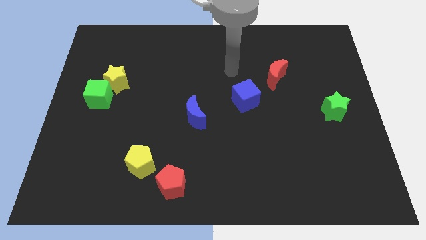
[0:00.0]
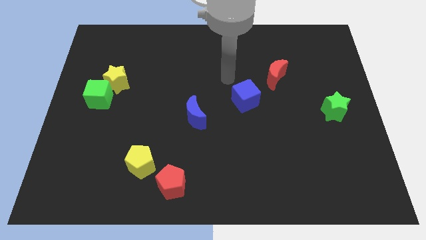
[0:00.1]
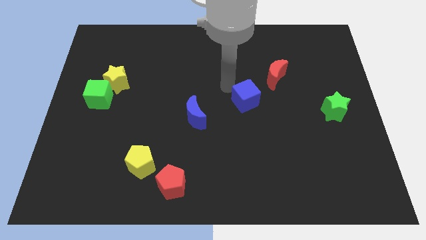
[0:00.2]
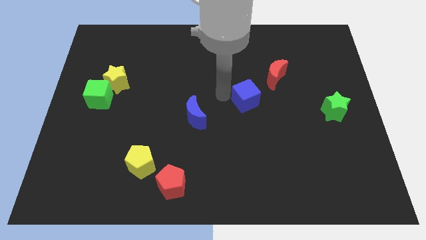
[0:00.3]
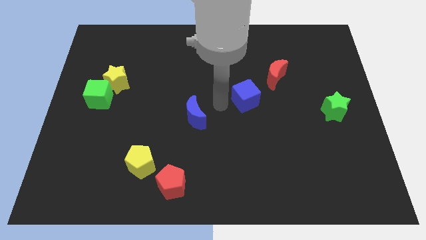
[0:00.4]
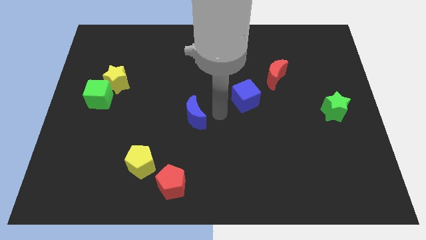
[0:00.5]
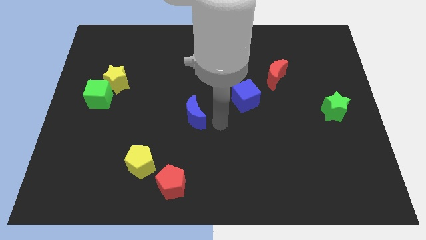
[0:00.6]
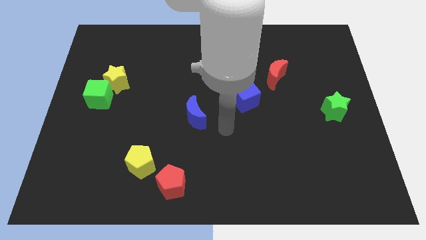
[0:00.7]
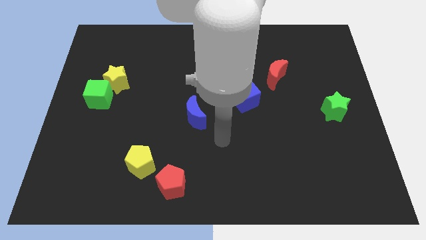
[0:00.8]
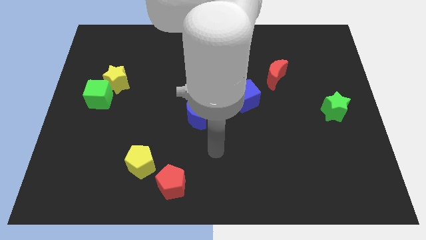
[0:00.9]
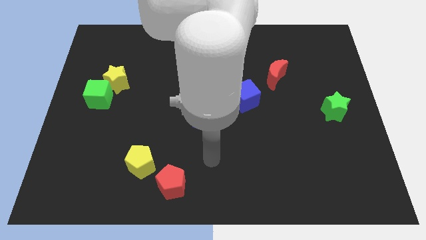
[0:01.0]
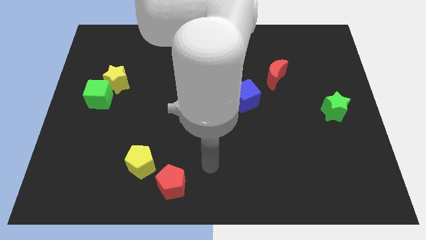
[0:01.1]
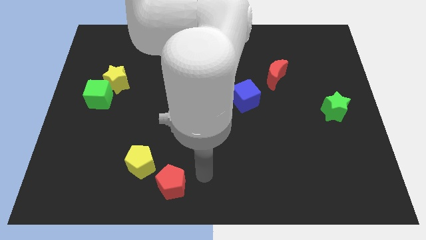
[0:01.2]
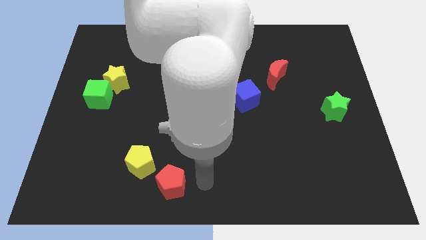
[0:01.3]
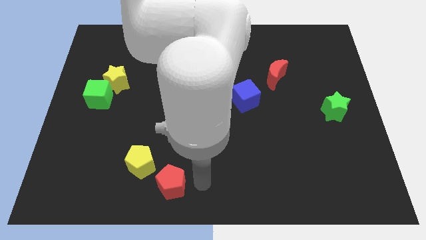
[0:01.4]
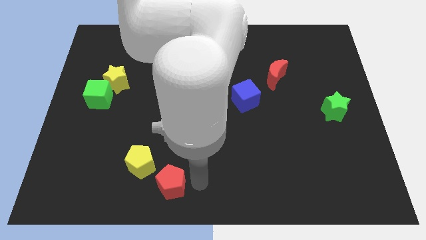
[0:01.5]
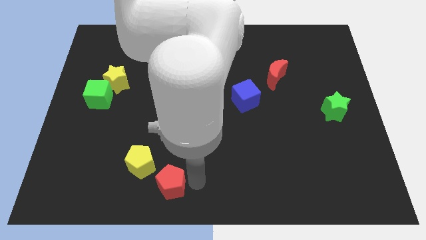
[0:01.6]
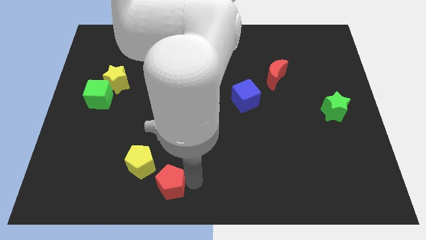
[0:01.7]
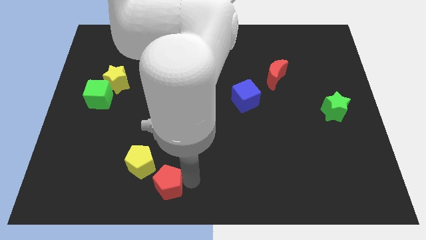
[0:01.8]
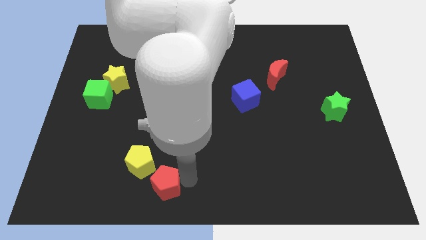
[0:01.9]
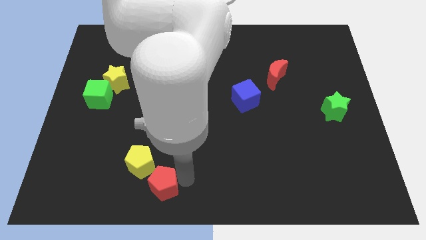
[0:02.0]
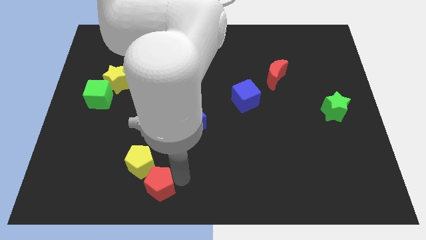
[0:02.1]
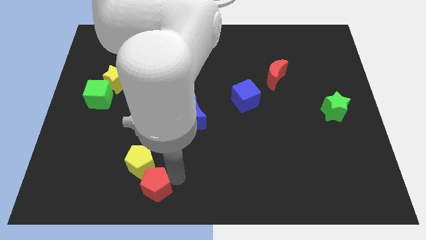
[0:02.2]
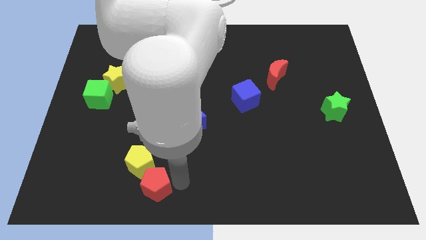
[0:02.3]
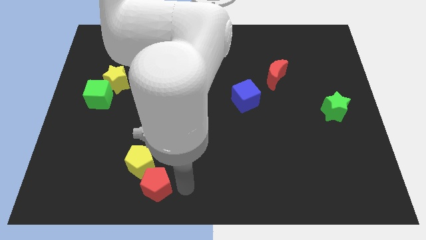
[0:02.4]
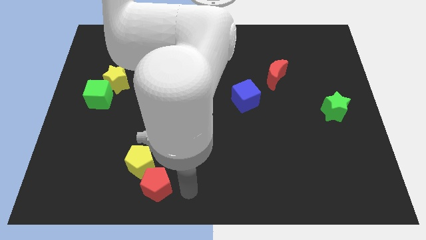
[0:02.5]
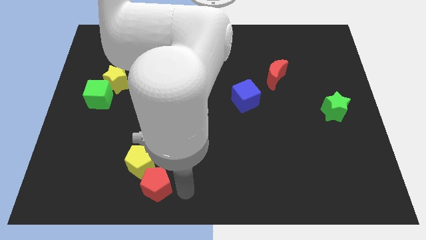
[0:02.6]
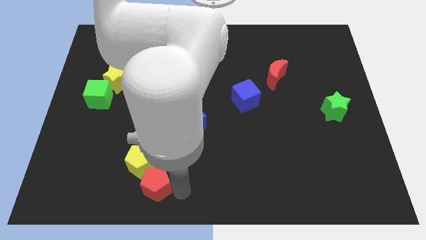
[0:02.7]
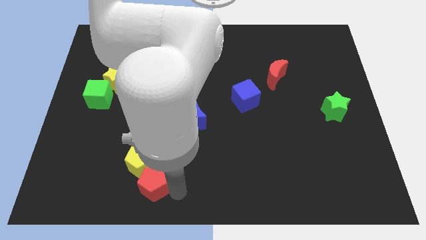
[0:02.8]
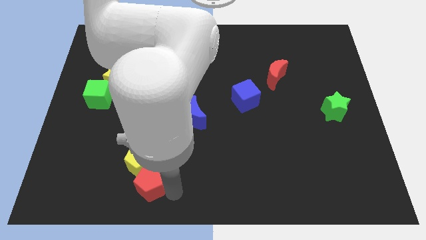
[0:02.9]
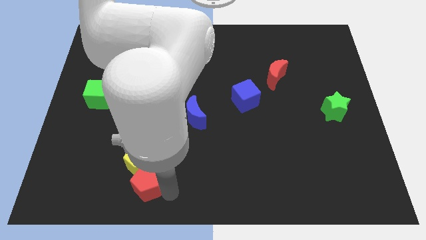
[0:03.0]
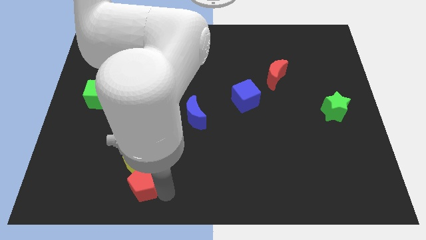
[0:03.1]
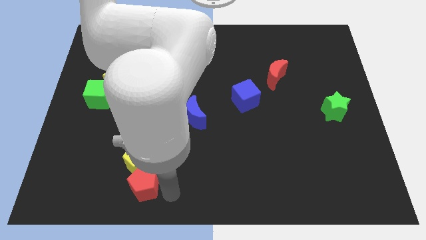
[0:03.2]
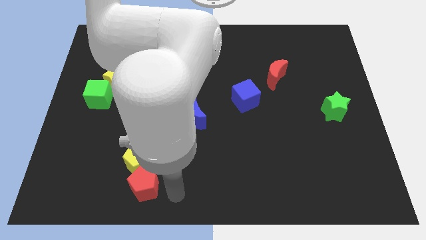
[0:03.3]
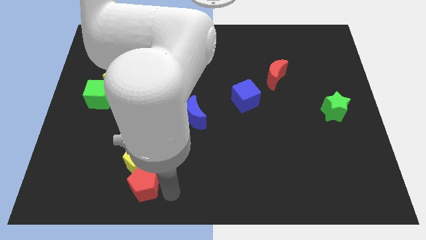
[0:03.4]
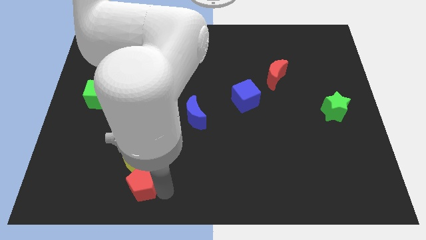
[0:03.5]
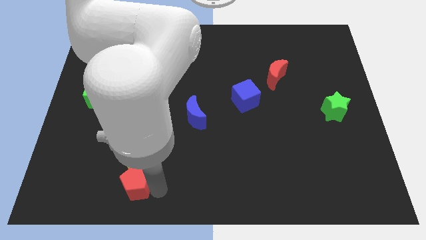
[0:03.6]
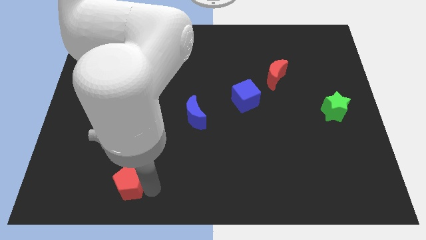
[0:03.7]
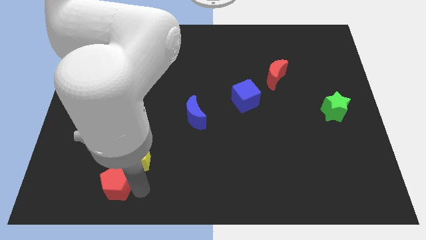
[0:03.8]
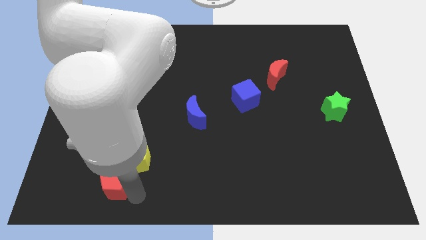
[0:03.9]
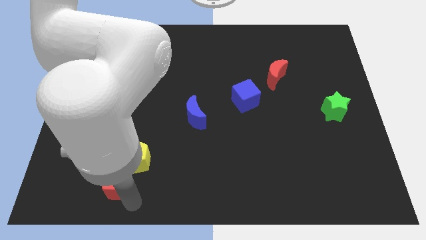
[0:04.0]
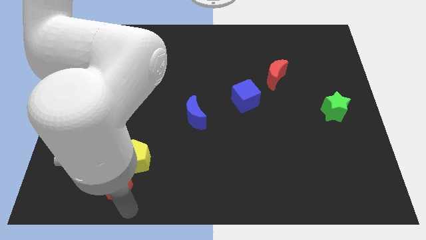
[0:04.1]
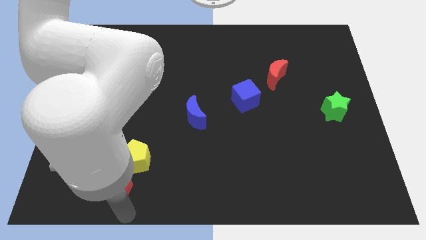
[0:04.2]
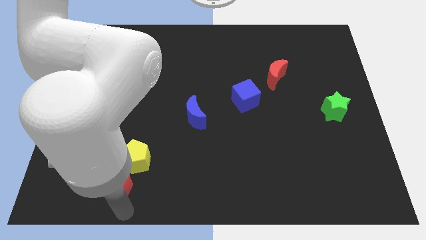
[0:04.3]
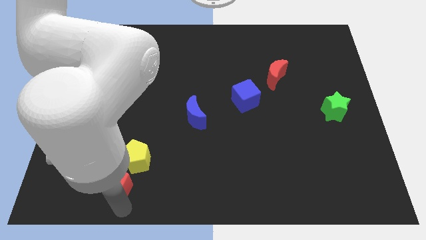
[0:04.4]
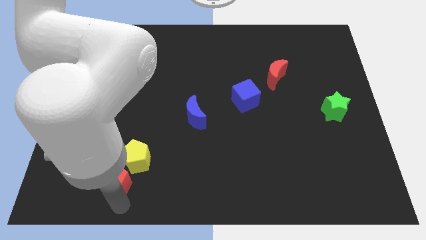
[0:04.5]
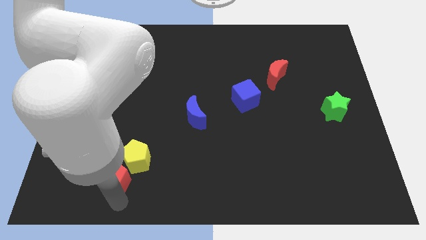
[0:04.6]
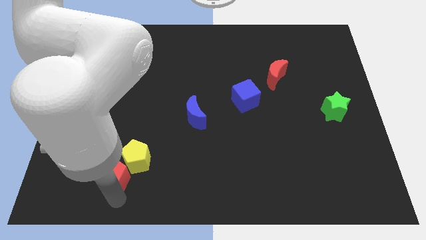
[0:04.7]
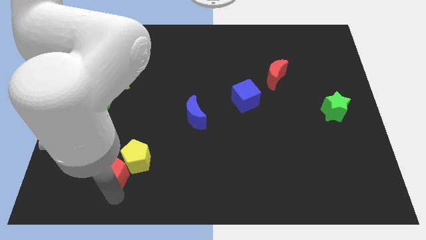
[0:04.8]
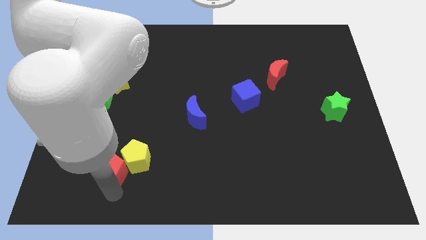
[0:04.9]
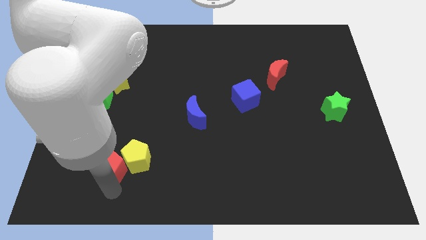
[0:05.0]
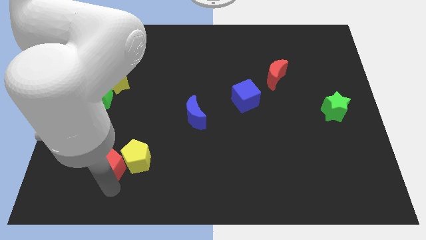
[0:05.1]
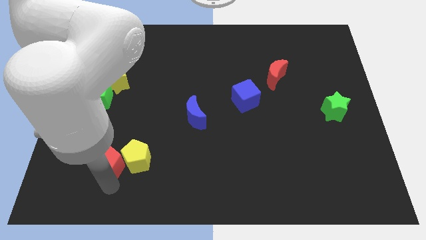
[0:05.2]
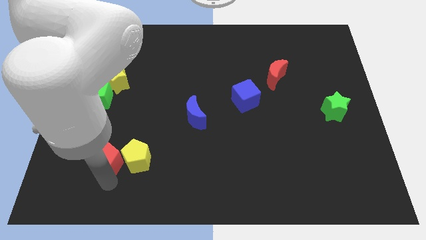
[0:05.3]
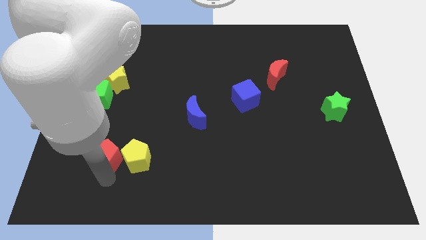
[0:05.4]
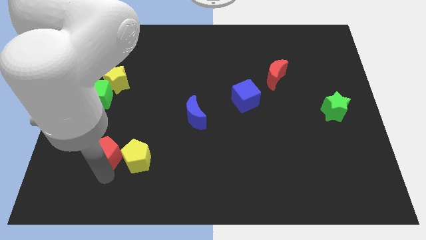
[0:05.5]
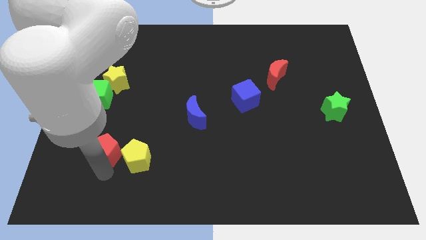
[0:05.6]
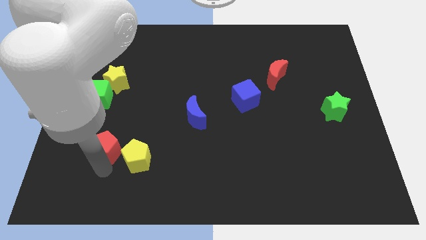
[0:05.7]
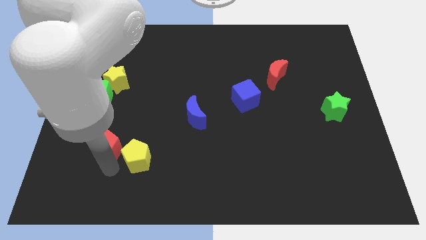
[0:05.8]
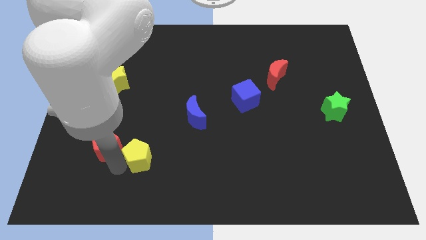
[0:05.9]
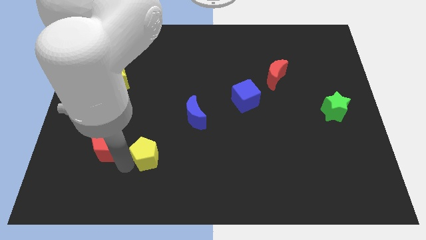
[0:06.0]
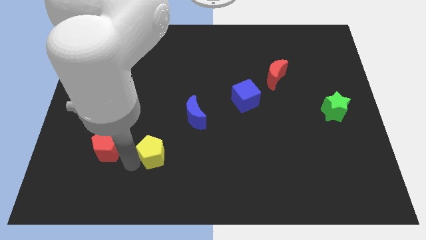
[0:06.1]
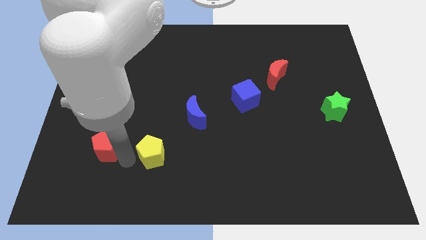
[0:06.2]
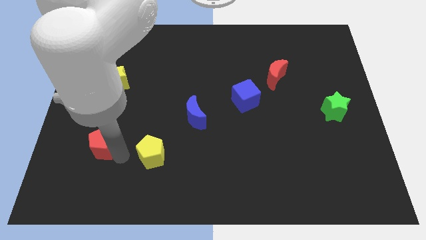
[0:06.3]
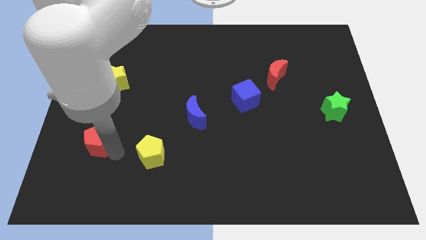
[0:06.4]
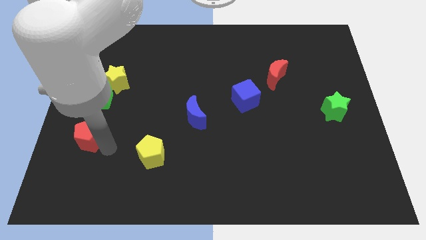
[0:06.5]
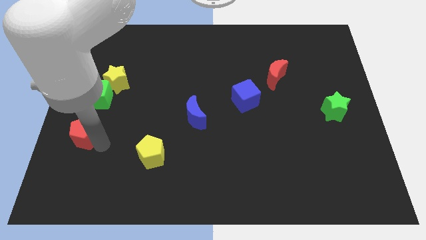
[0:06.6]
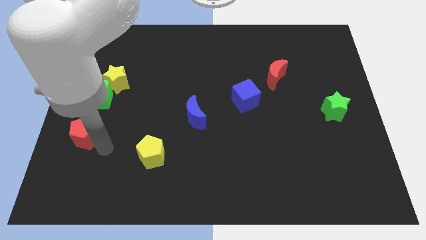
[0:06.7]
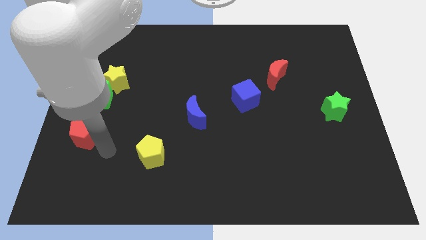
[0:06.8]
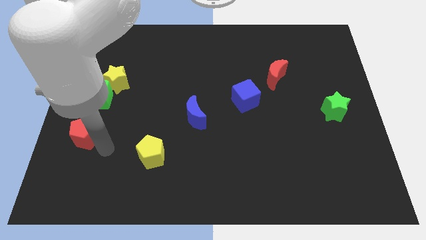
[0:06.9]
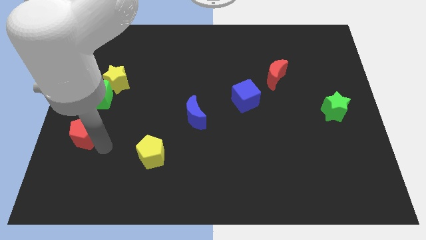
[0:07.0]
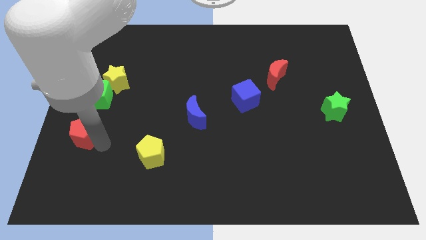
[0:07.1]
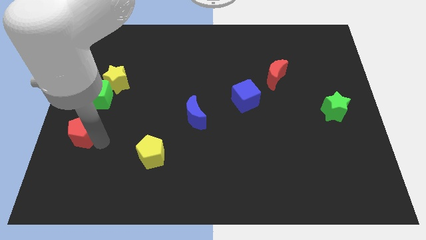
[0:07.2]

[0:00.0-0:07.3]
move the red pentagon to the left side
